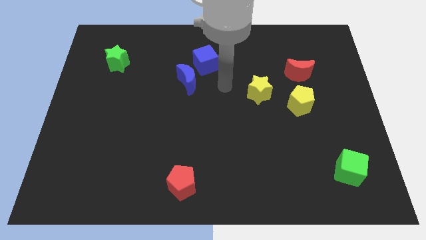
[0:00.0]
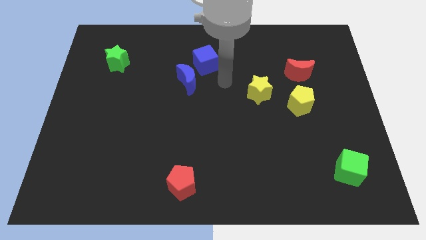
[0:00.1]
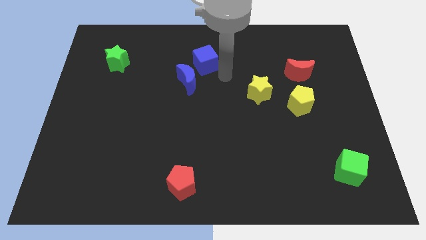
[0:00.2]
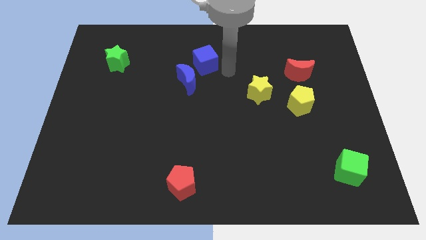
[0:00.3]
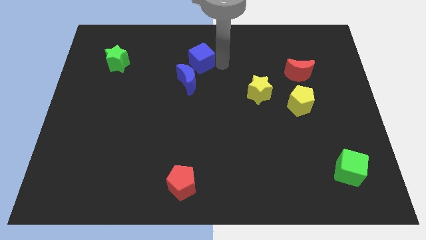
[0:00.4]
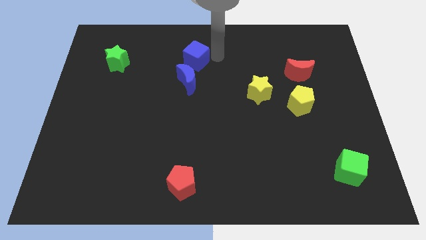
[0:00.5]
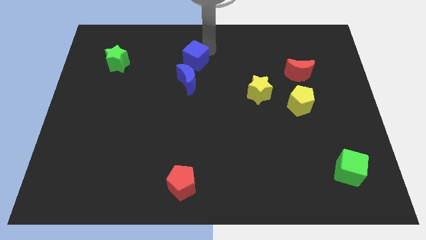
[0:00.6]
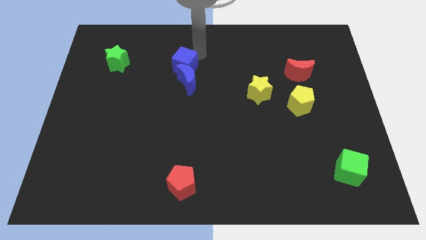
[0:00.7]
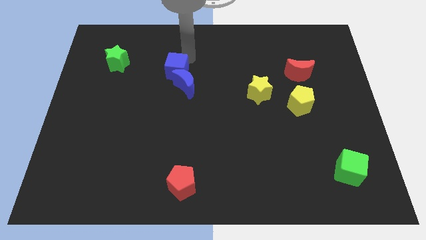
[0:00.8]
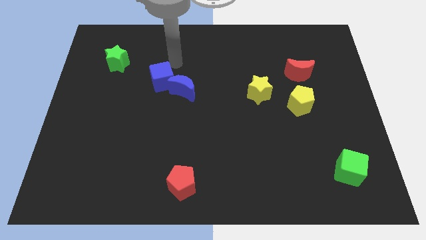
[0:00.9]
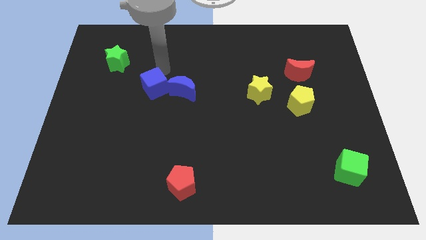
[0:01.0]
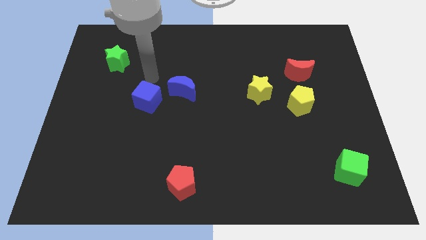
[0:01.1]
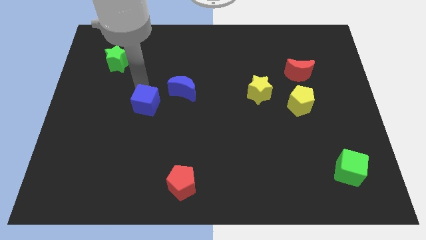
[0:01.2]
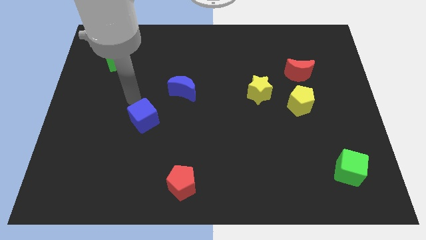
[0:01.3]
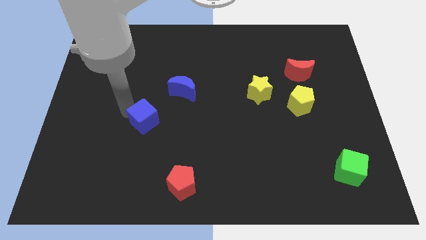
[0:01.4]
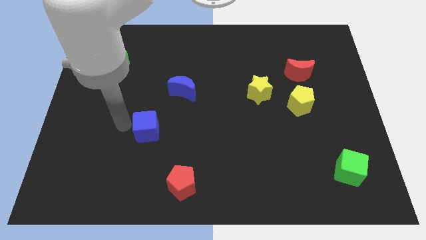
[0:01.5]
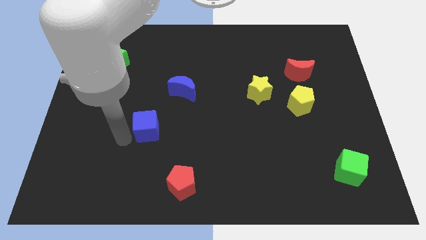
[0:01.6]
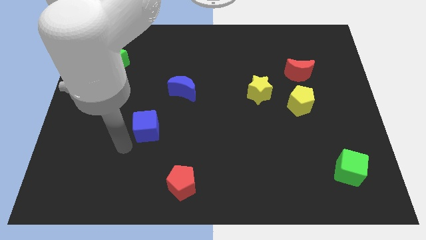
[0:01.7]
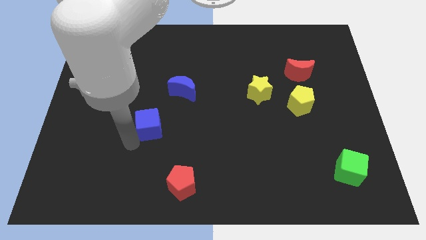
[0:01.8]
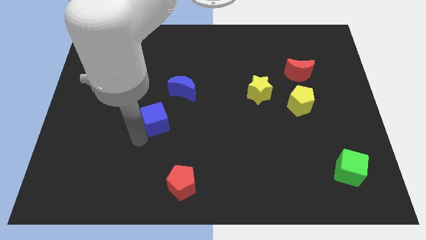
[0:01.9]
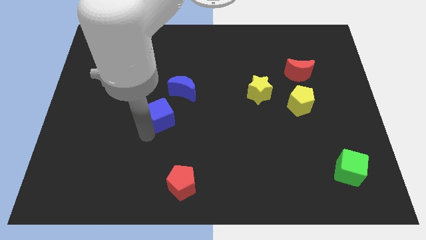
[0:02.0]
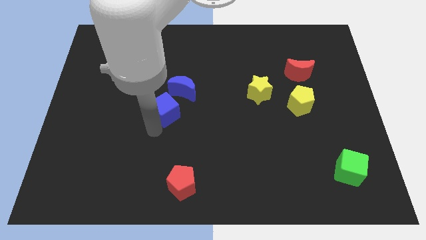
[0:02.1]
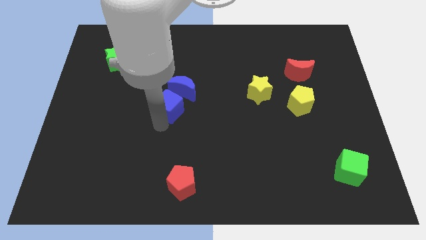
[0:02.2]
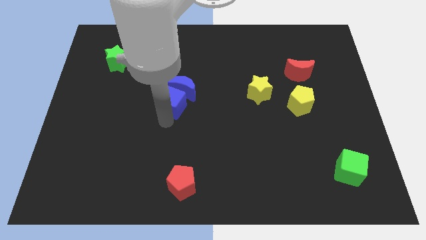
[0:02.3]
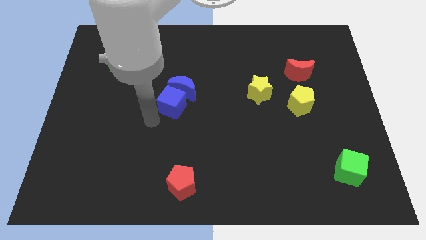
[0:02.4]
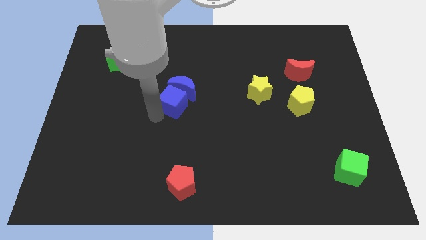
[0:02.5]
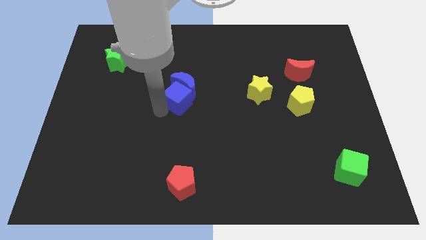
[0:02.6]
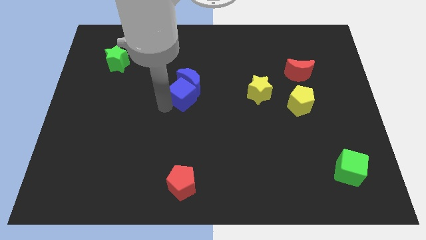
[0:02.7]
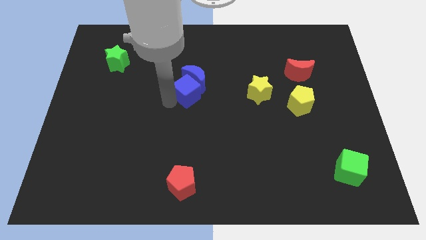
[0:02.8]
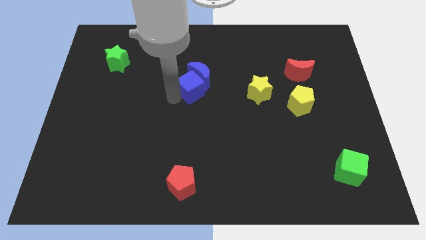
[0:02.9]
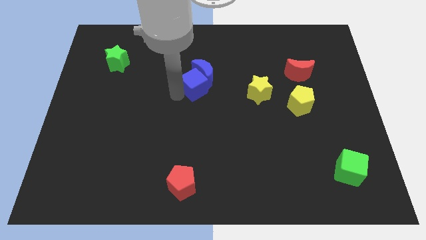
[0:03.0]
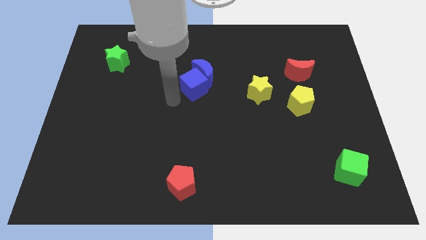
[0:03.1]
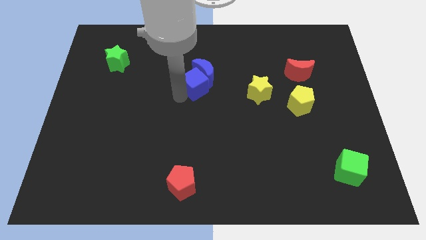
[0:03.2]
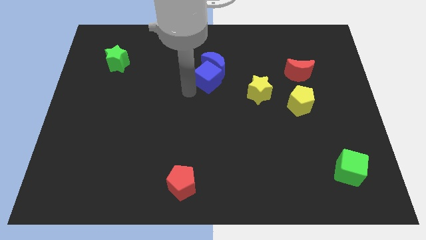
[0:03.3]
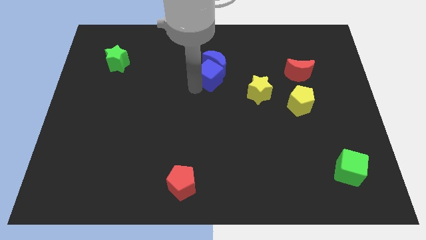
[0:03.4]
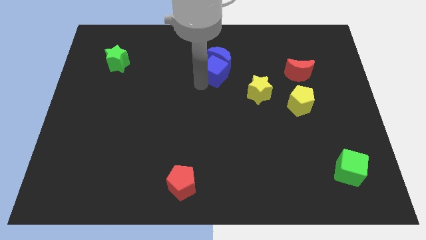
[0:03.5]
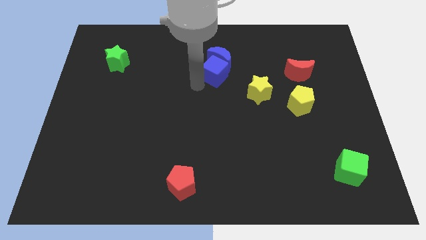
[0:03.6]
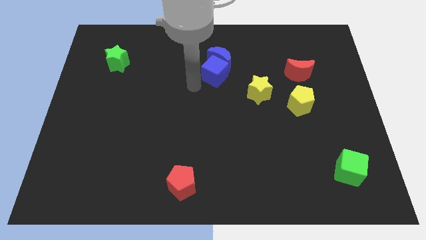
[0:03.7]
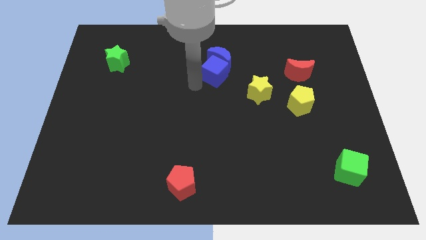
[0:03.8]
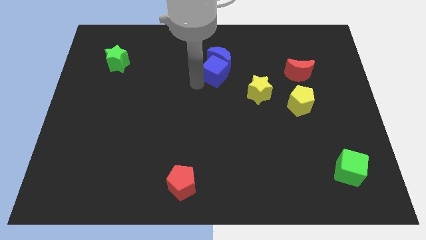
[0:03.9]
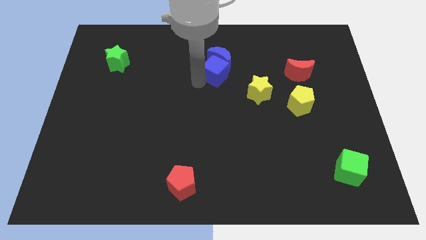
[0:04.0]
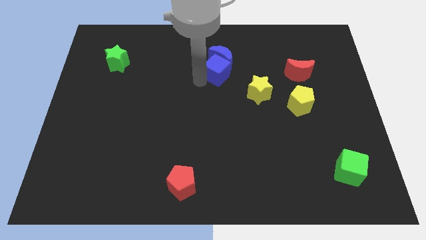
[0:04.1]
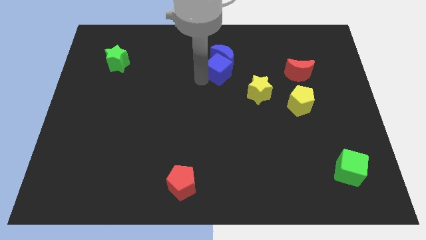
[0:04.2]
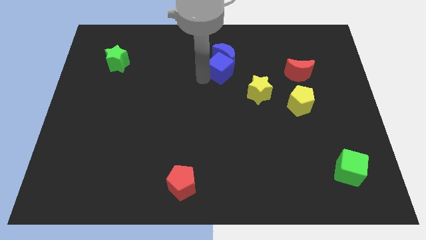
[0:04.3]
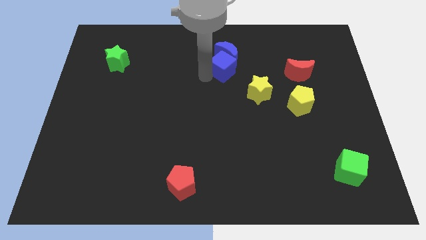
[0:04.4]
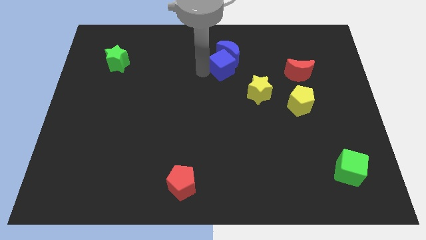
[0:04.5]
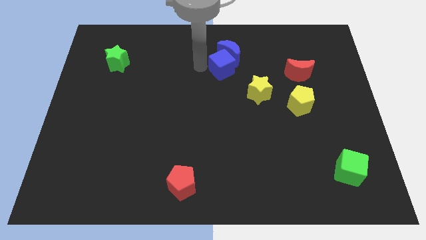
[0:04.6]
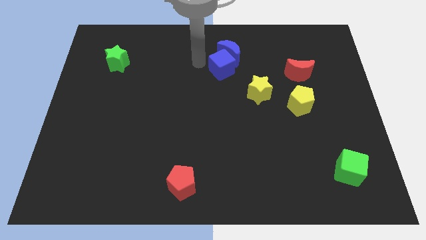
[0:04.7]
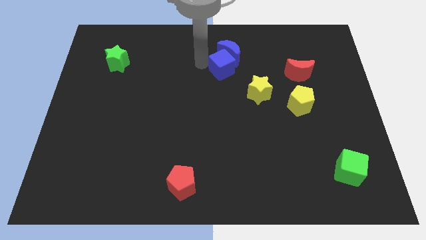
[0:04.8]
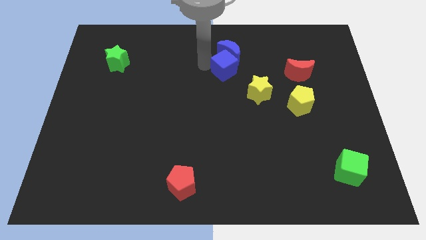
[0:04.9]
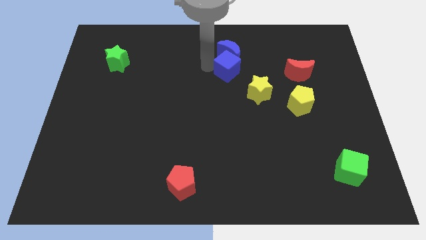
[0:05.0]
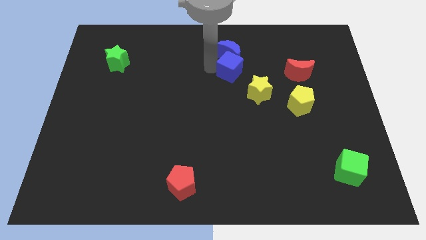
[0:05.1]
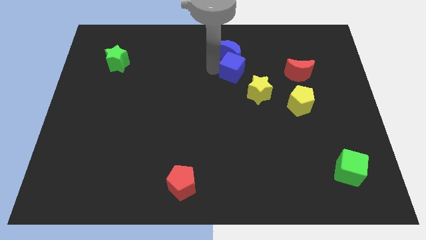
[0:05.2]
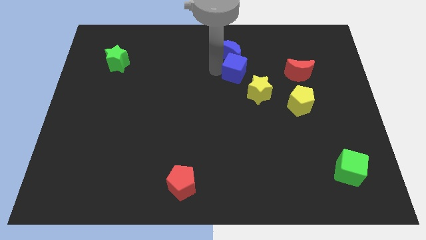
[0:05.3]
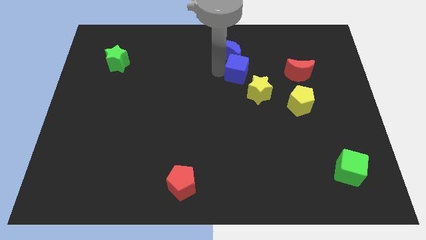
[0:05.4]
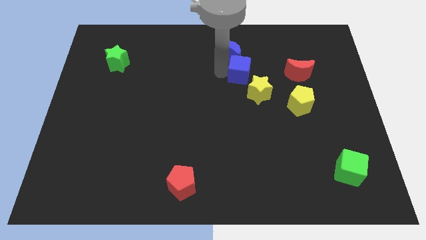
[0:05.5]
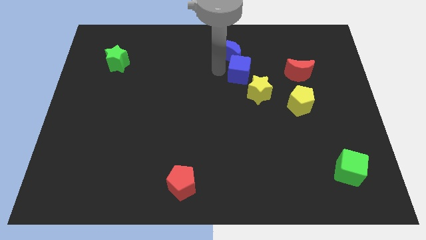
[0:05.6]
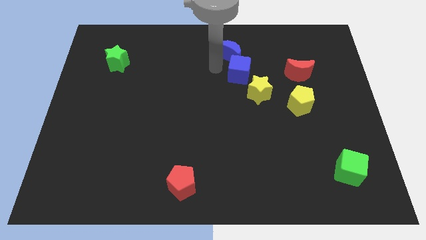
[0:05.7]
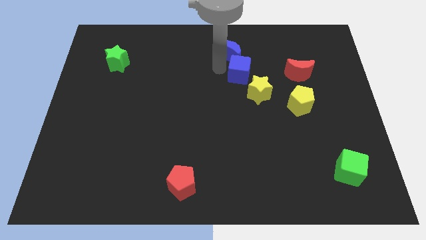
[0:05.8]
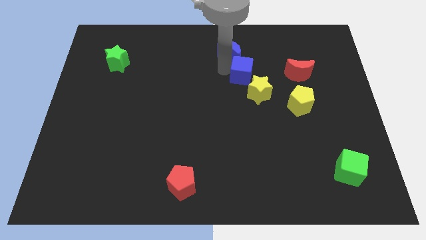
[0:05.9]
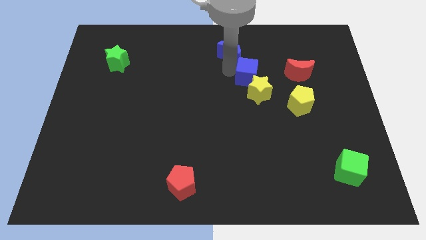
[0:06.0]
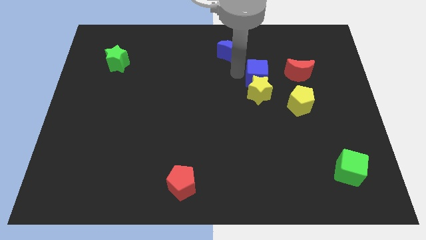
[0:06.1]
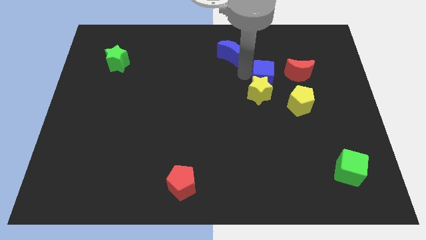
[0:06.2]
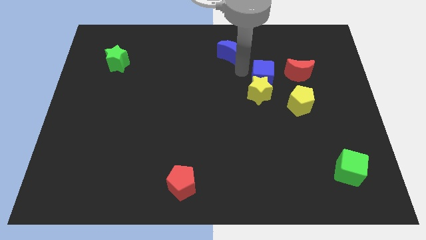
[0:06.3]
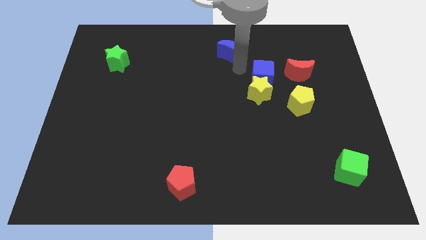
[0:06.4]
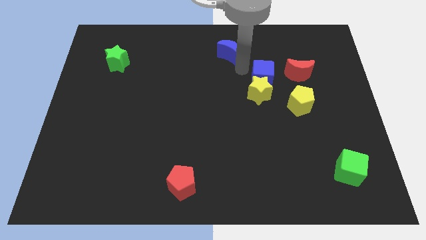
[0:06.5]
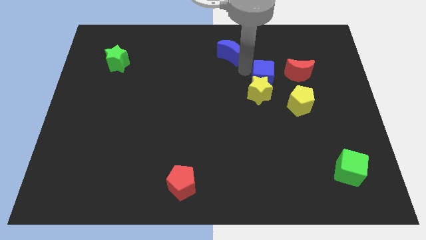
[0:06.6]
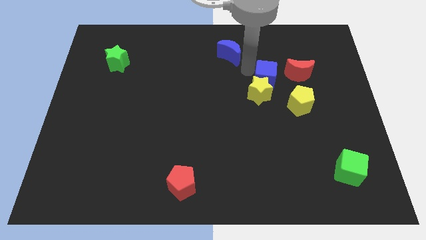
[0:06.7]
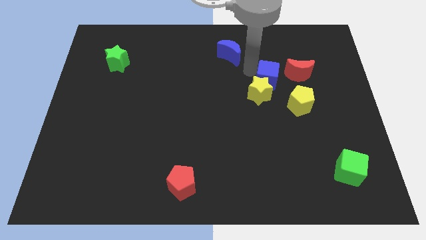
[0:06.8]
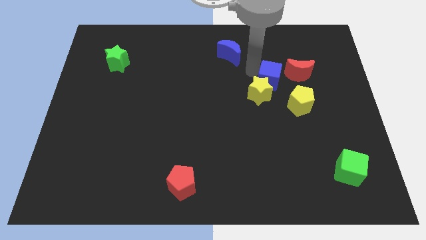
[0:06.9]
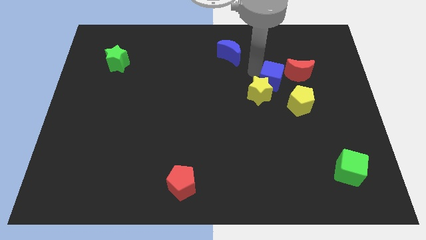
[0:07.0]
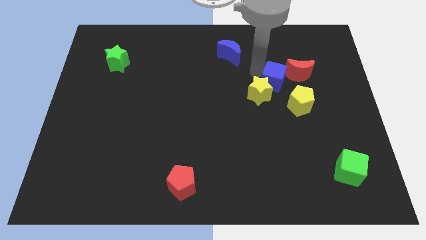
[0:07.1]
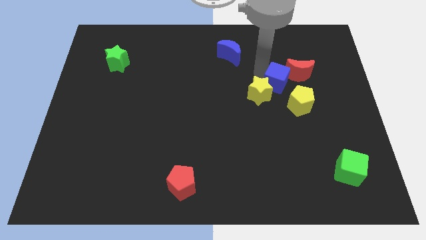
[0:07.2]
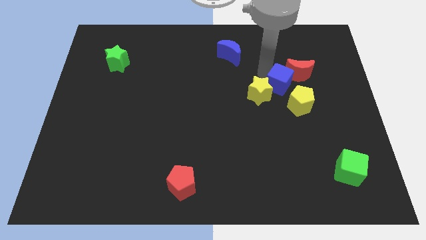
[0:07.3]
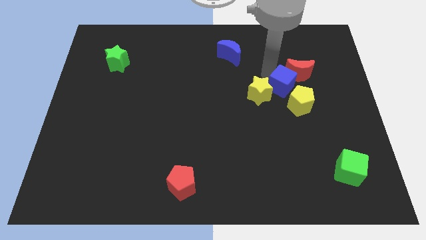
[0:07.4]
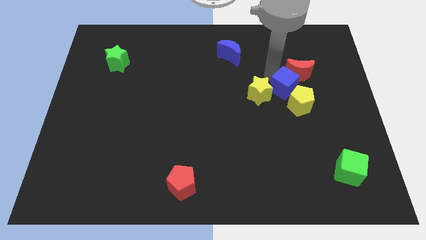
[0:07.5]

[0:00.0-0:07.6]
put the blue cube to the yellow pentagon
